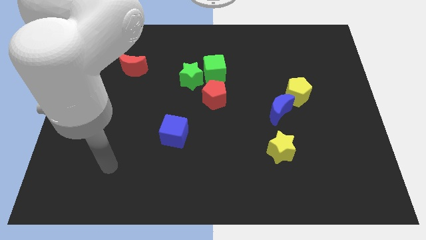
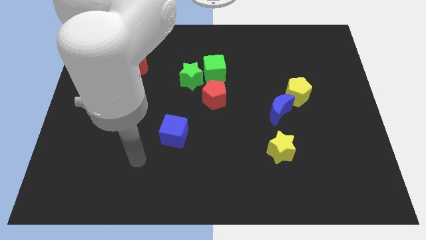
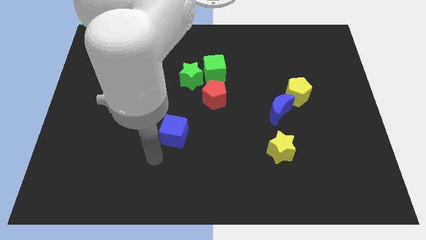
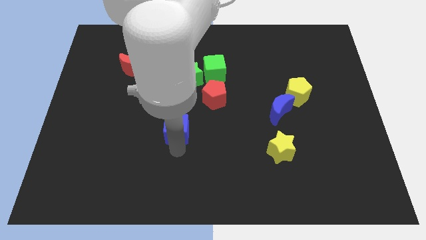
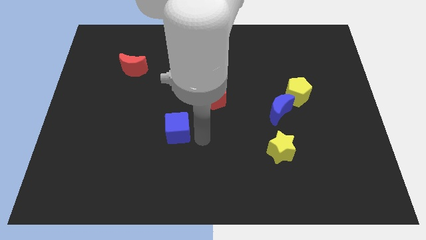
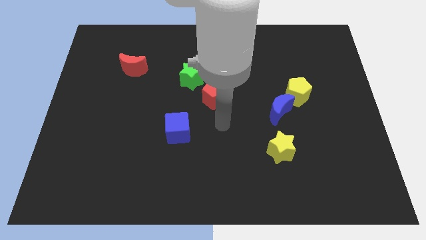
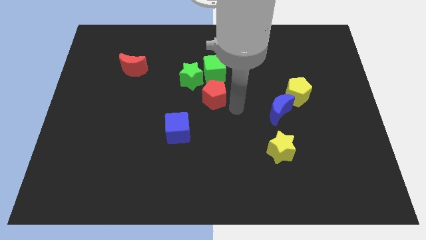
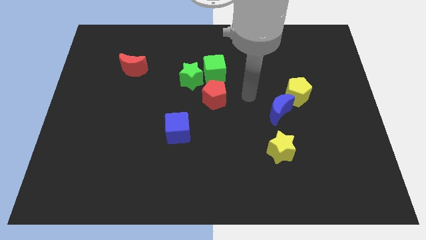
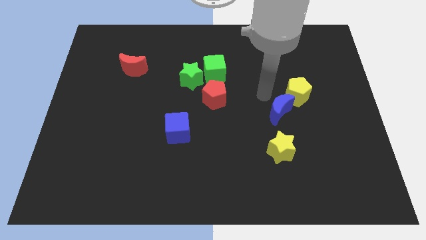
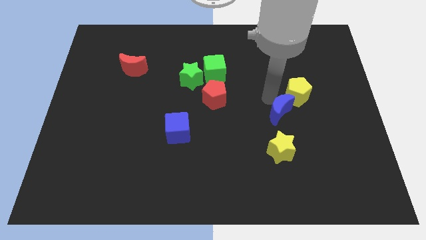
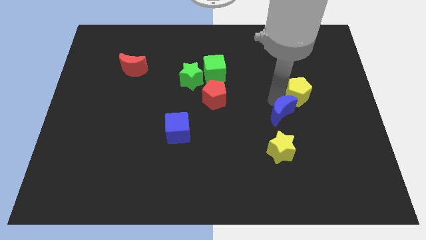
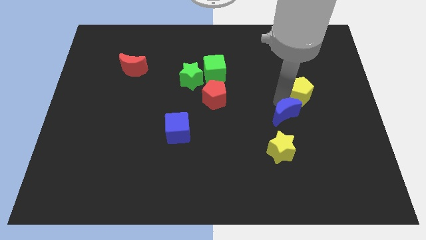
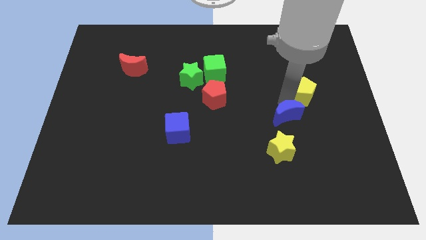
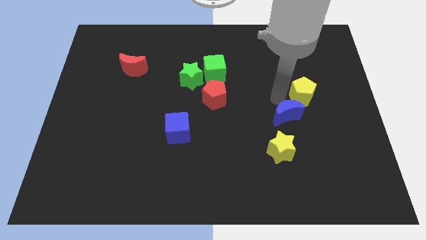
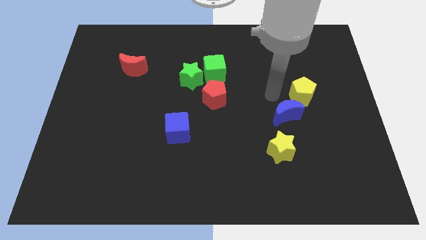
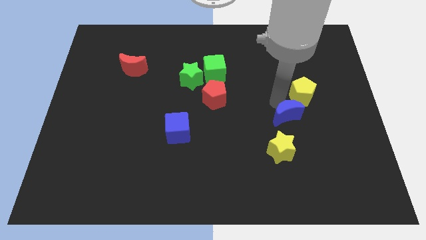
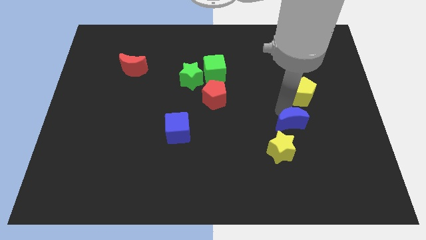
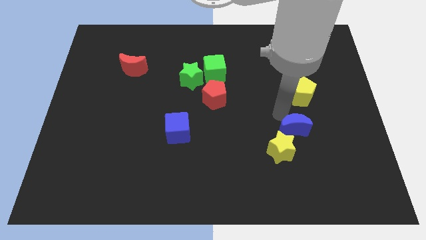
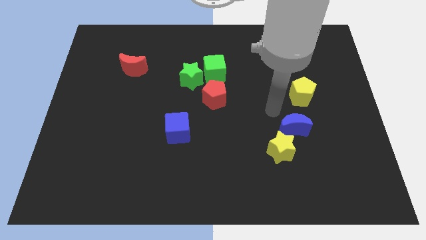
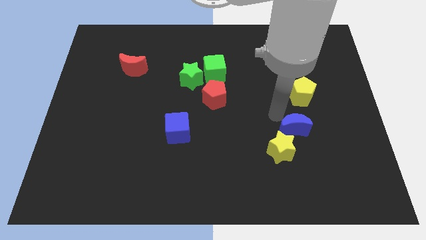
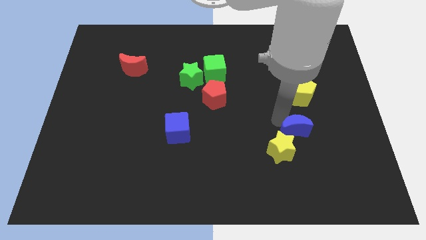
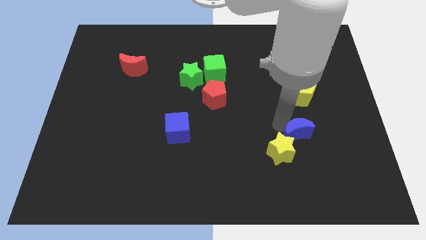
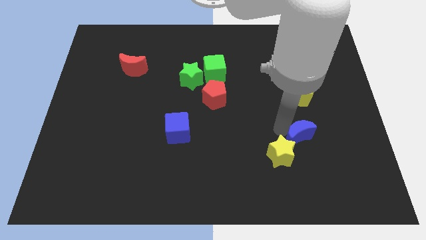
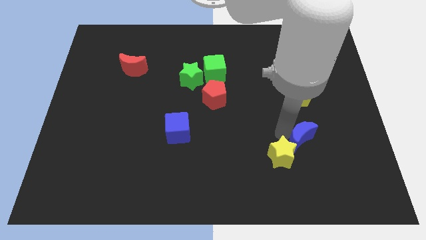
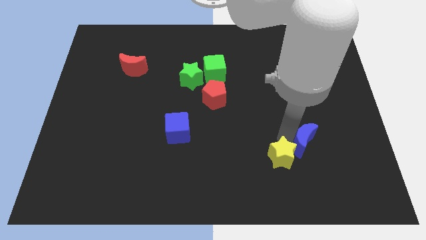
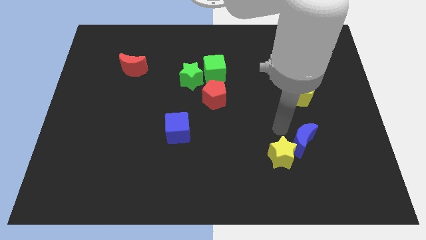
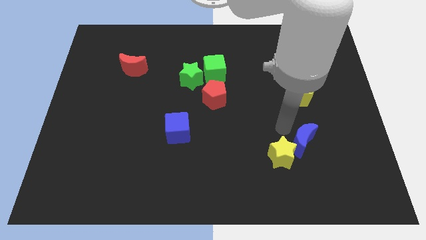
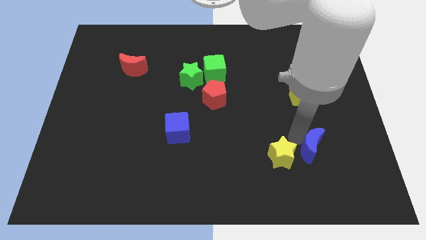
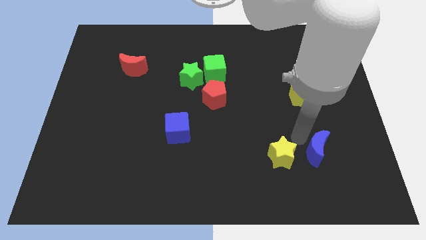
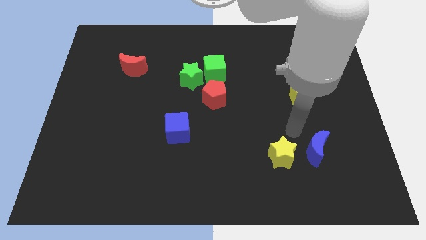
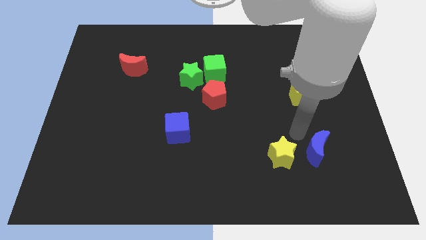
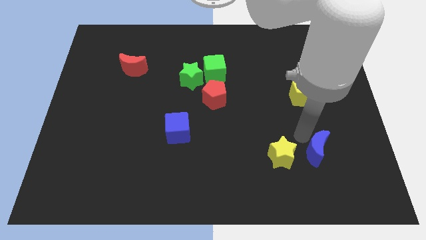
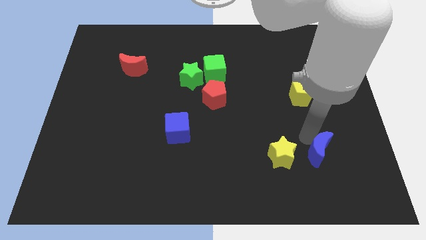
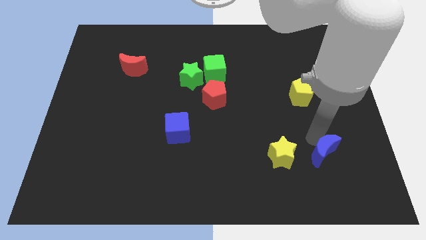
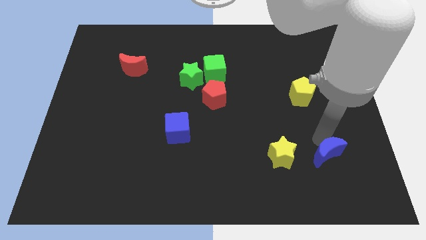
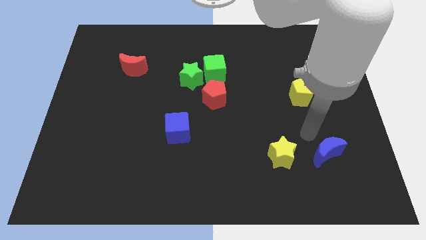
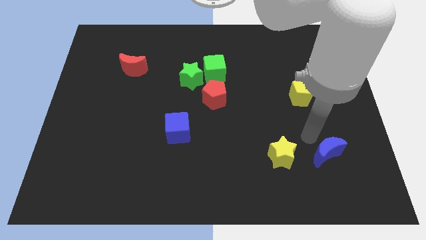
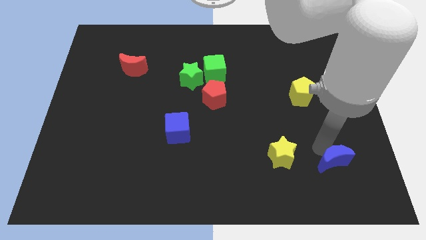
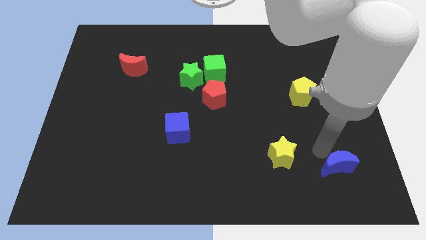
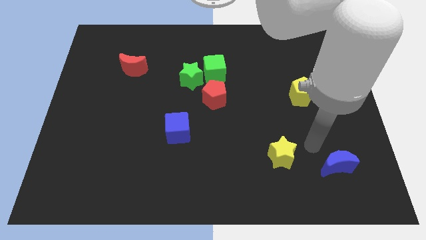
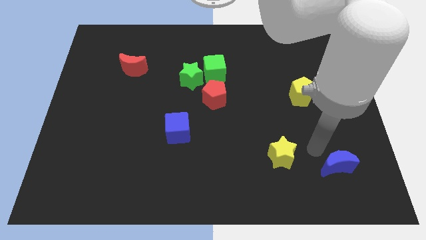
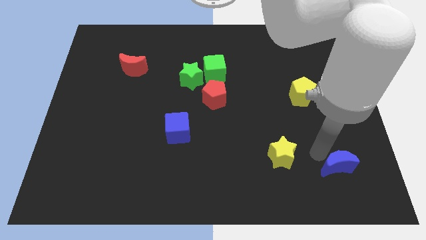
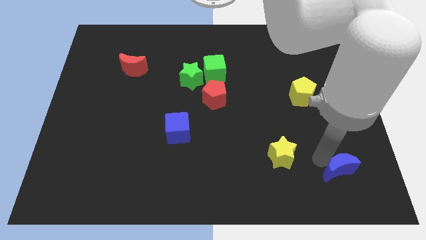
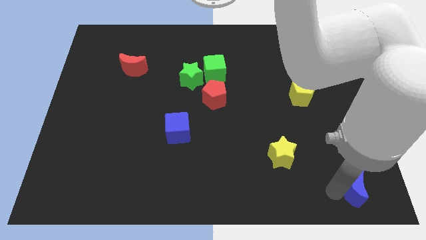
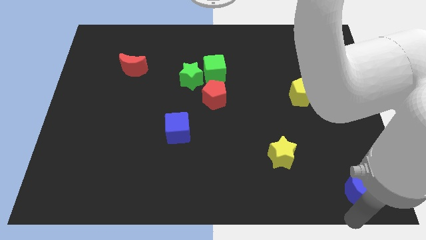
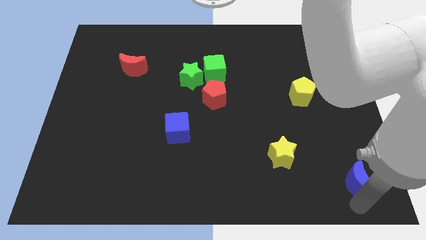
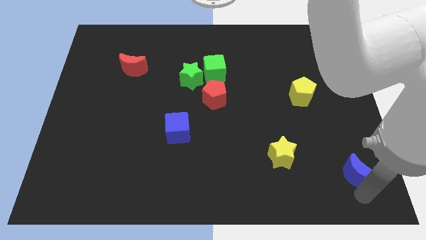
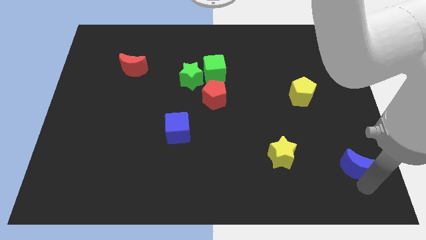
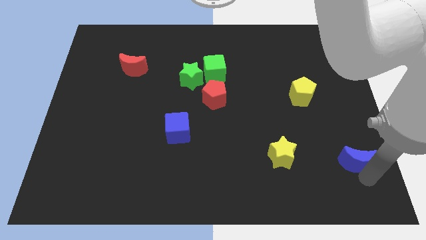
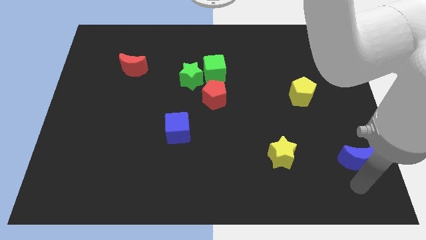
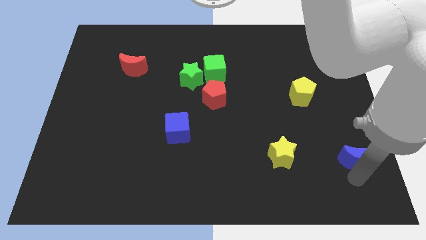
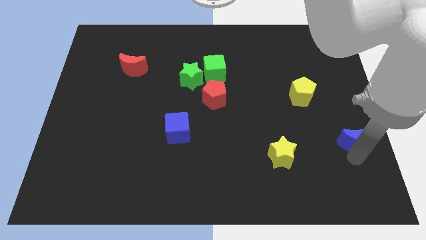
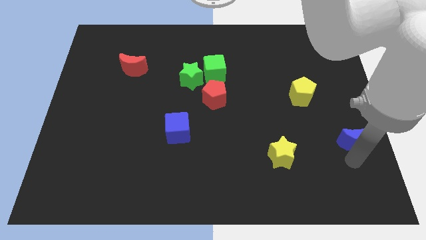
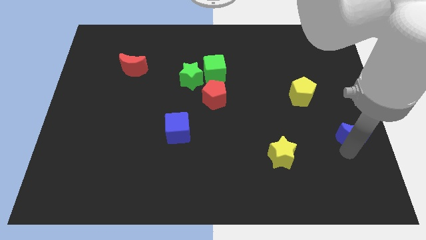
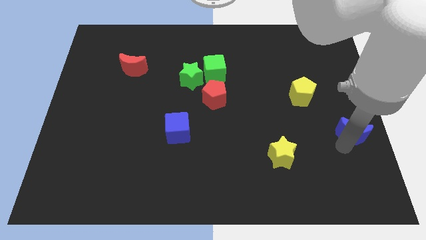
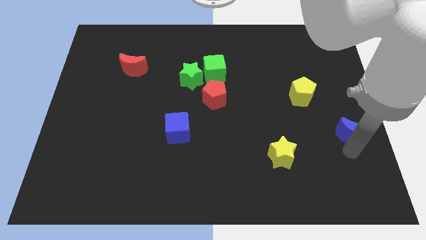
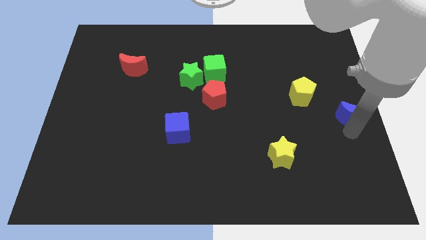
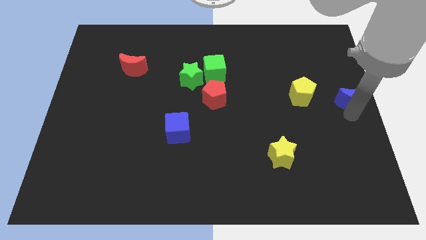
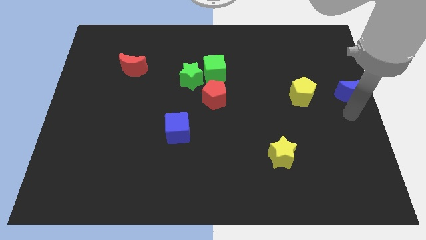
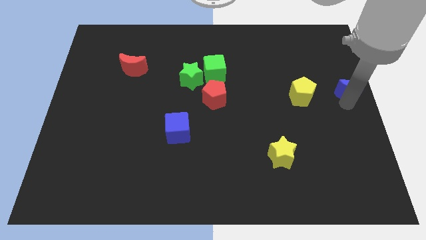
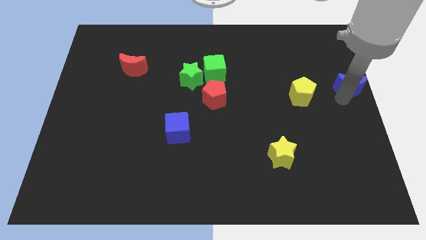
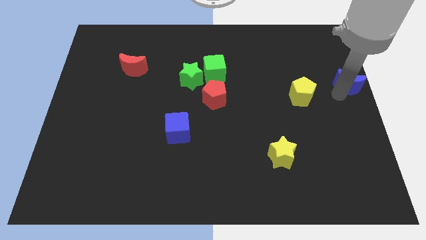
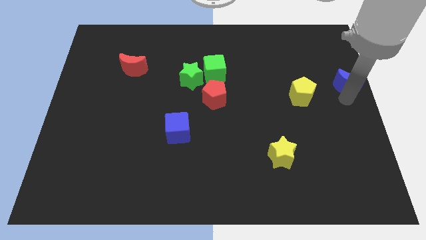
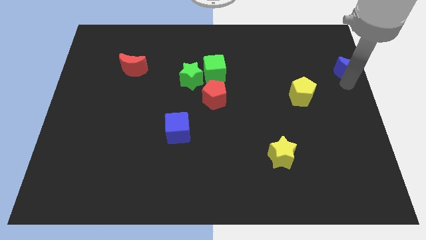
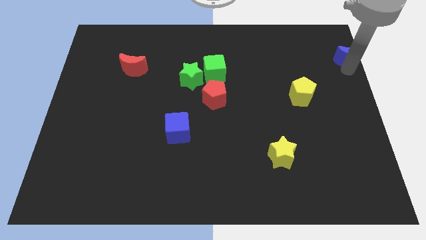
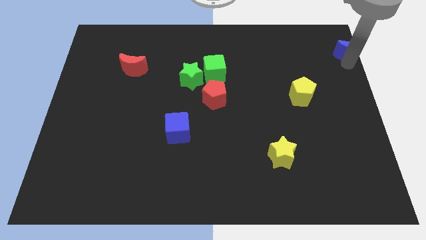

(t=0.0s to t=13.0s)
move the blue moon to the top right
